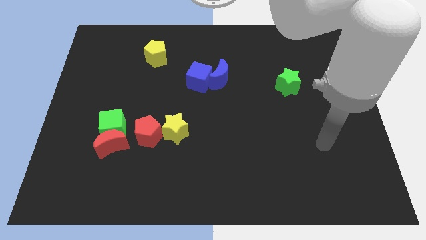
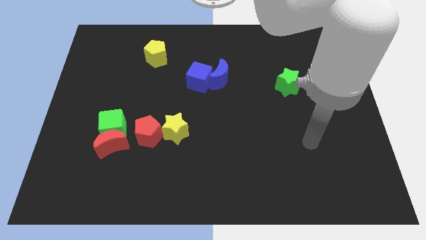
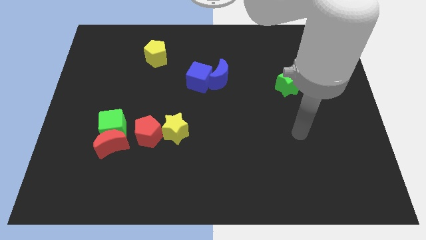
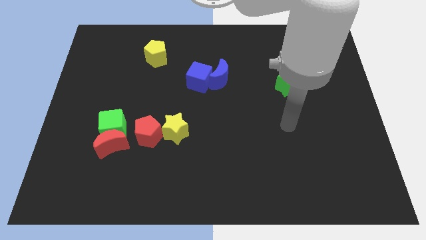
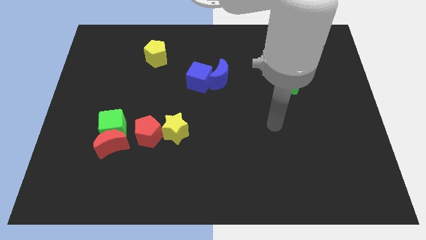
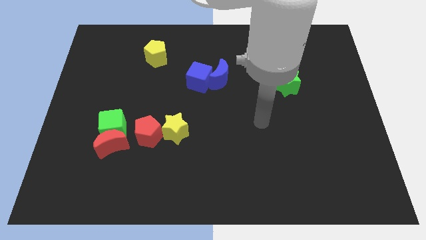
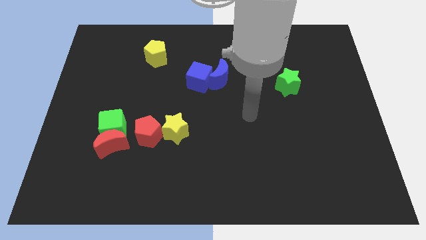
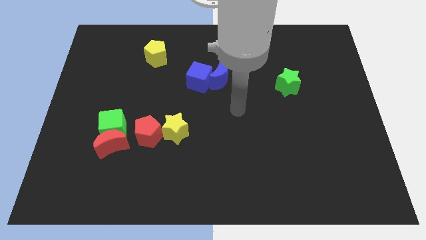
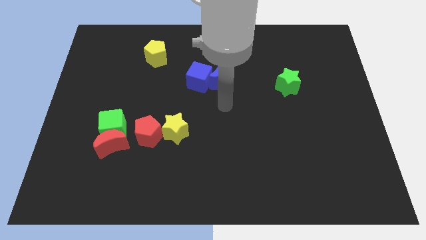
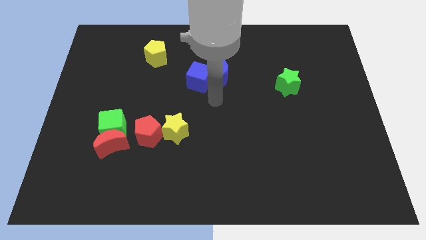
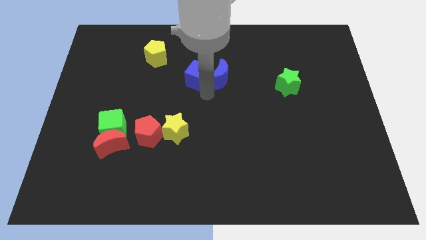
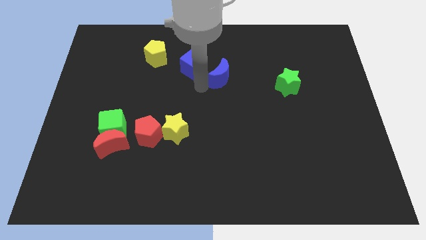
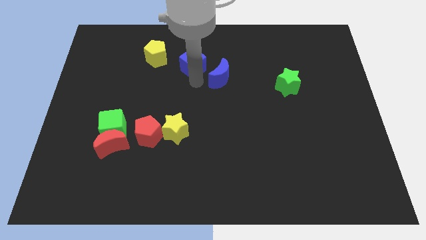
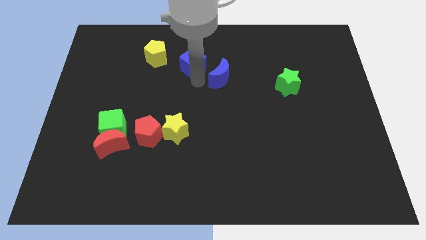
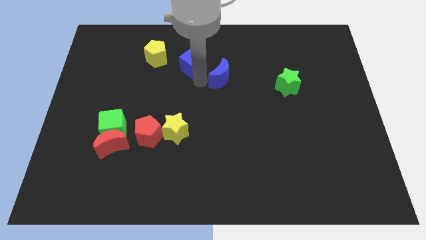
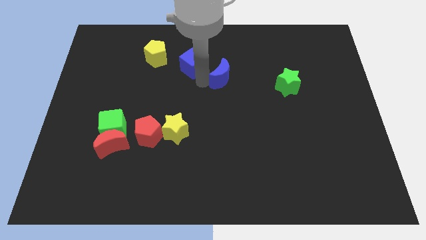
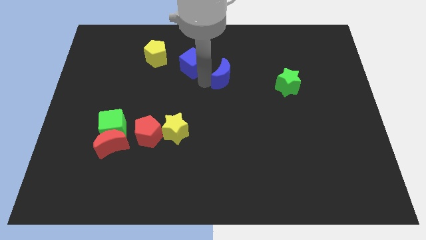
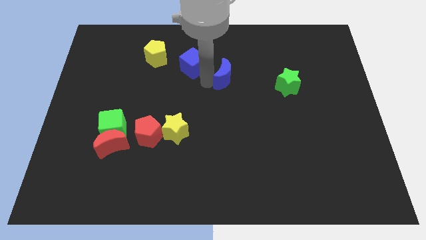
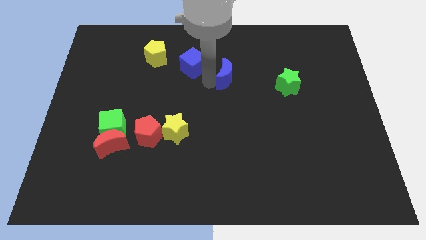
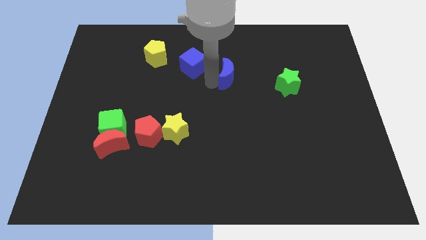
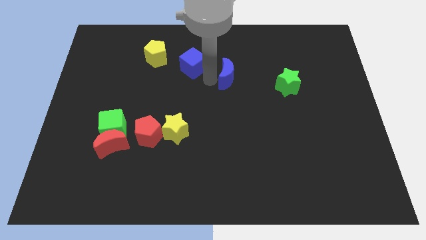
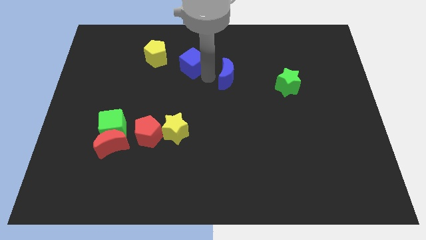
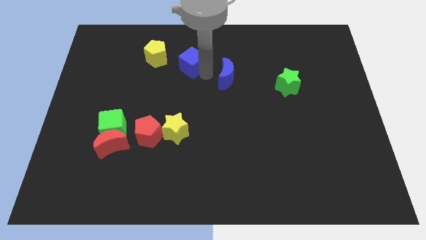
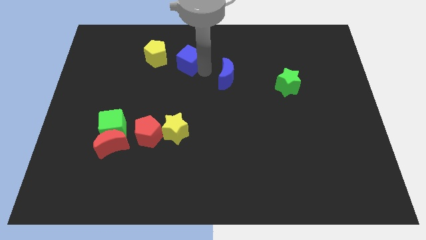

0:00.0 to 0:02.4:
pull the blue moon apart from the blue cube

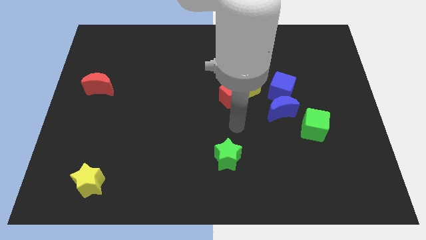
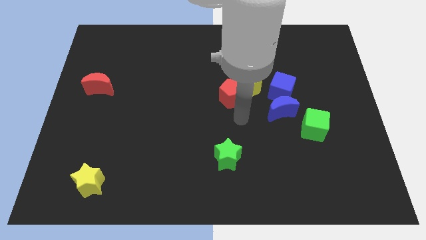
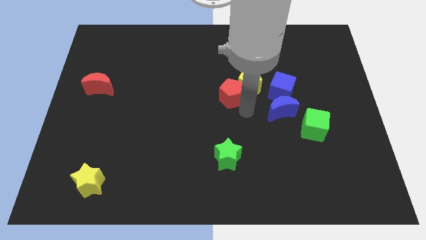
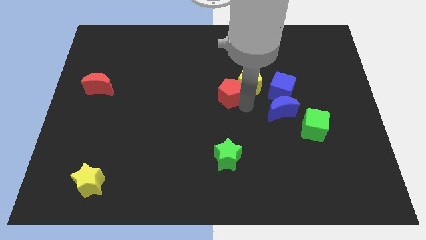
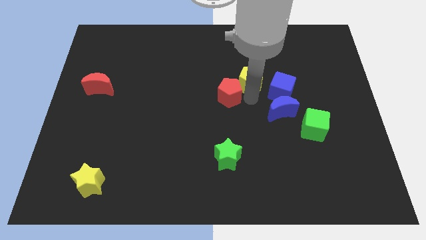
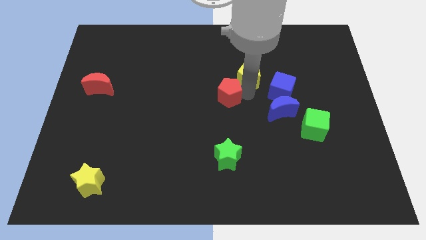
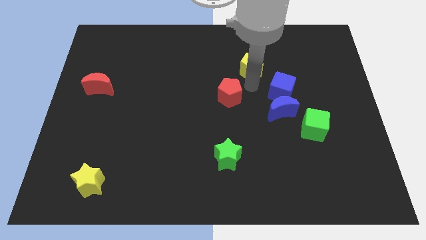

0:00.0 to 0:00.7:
move the red pentagon away from the yellow pentagon

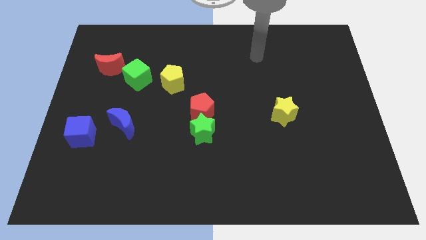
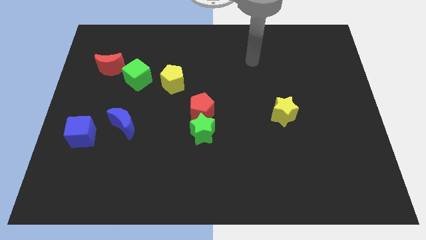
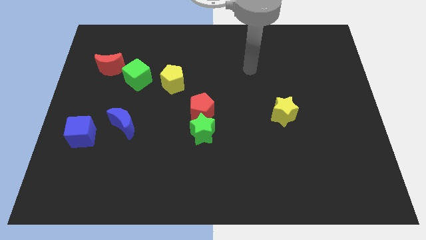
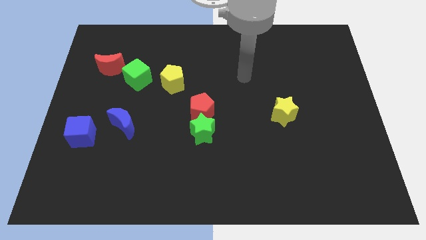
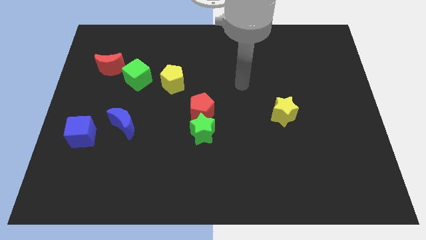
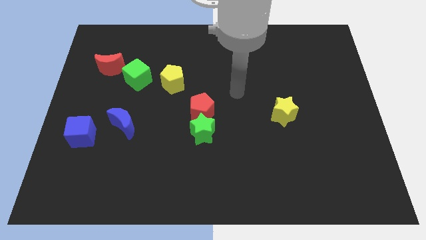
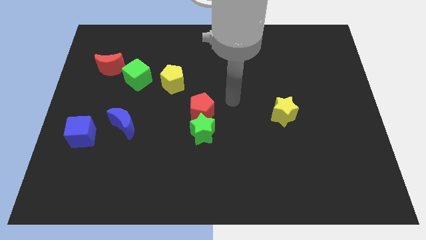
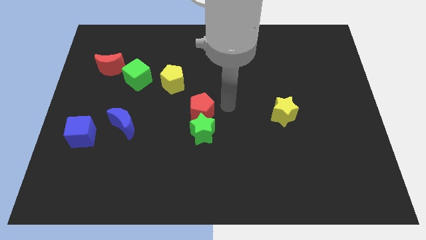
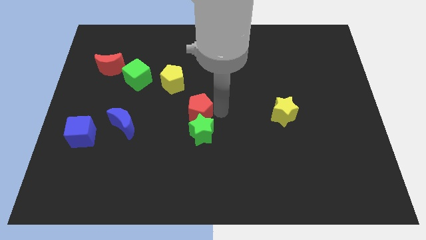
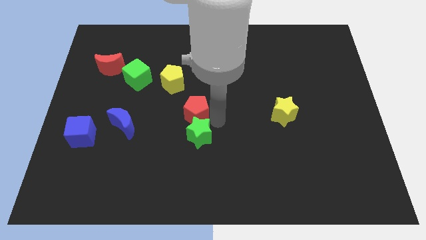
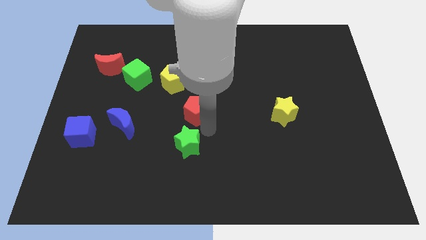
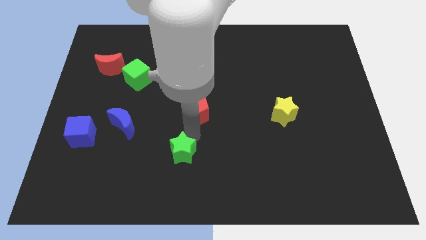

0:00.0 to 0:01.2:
separate the red pentagon from the green star

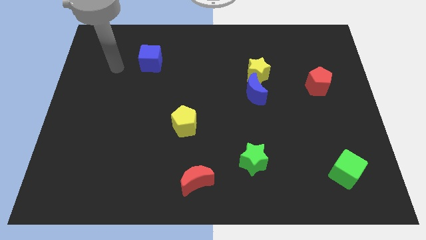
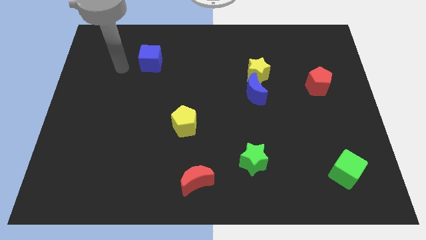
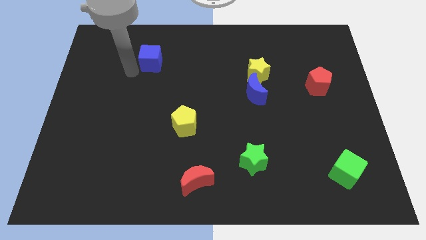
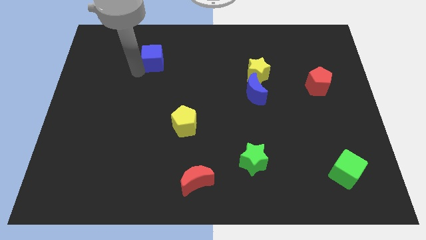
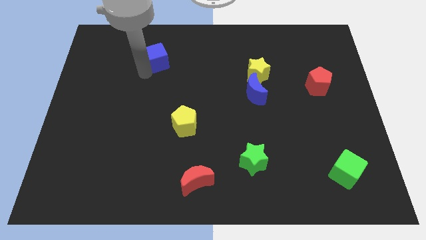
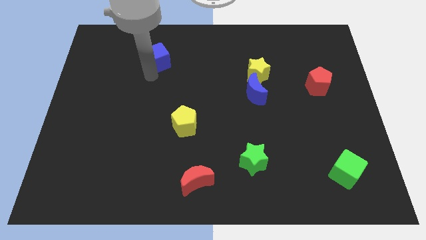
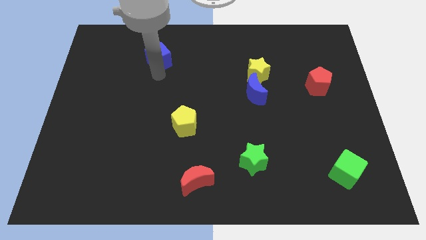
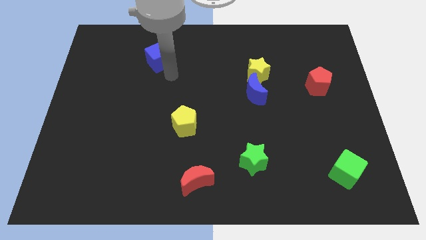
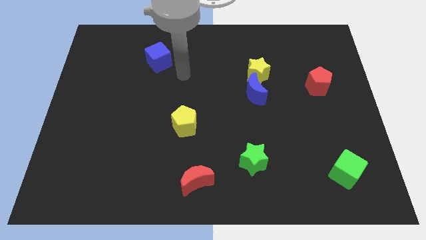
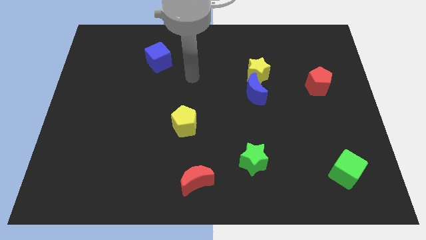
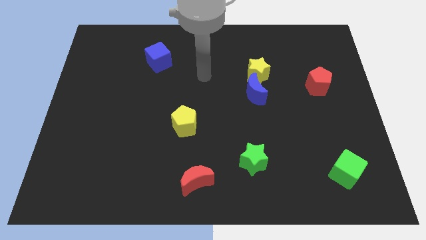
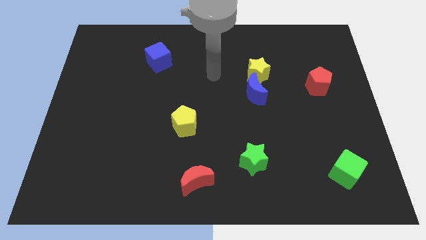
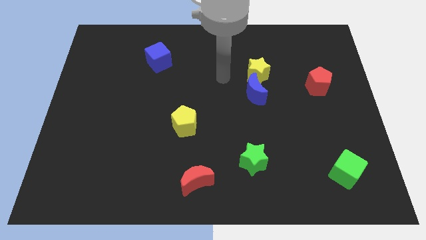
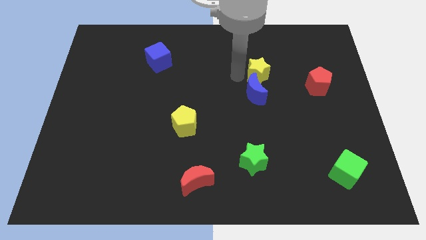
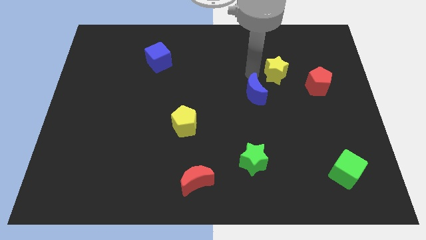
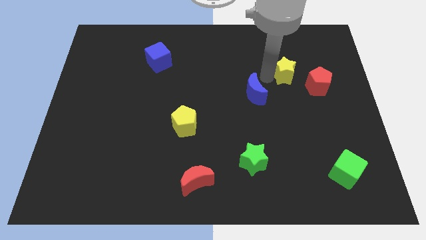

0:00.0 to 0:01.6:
pull the blue moon apart from the yellow star

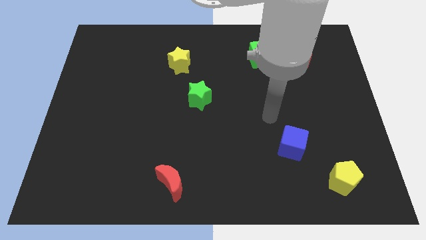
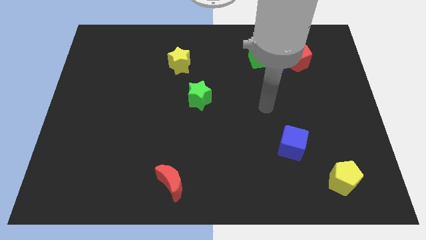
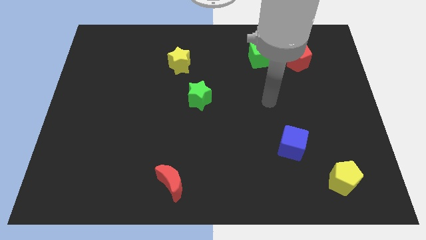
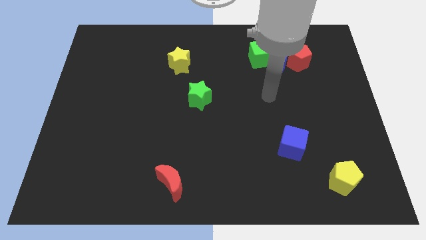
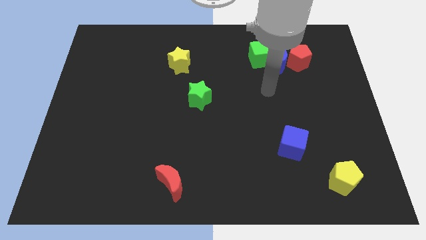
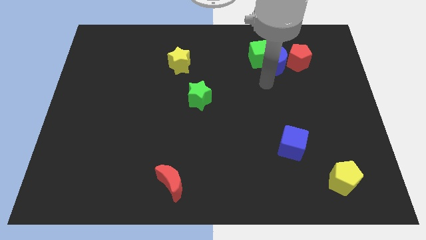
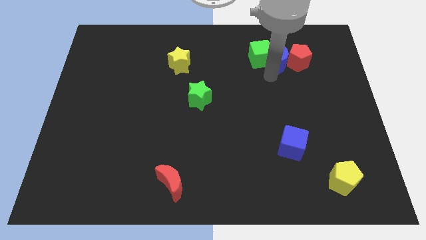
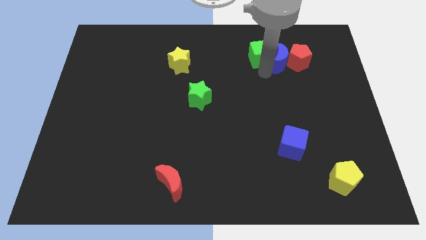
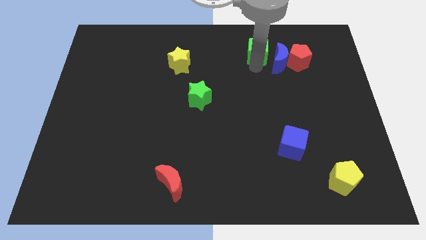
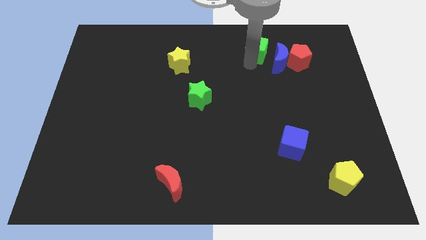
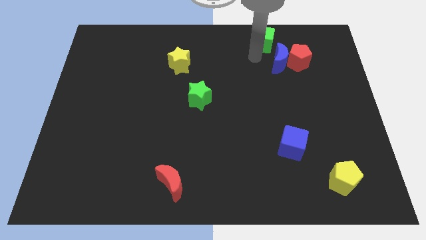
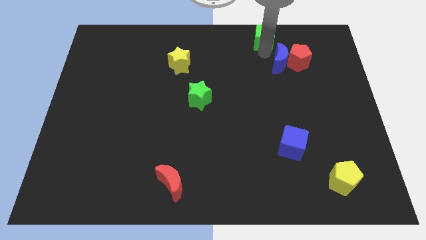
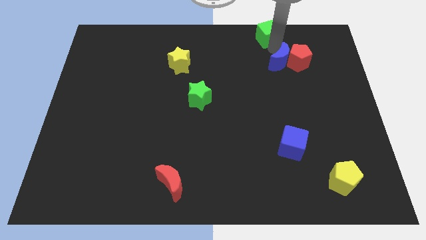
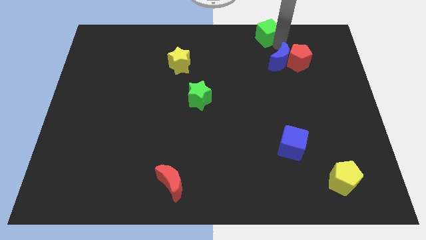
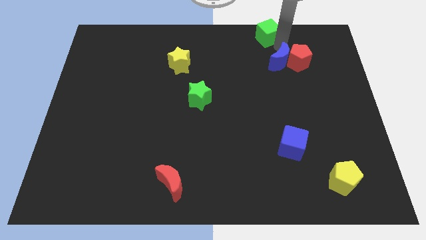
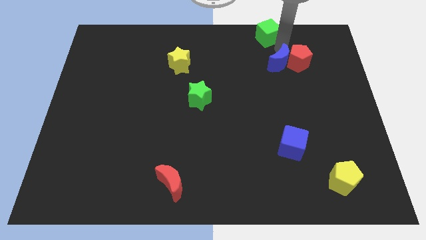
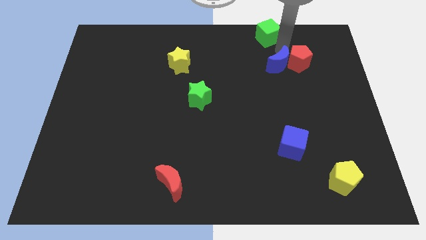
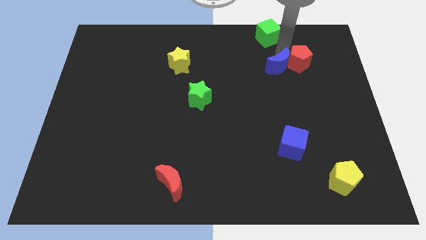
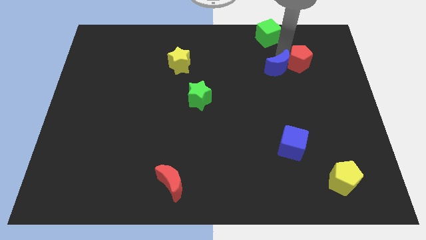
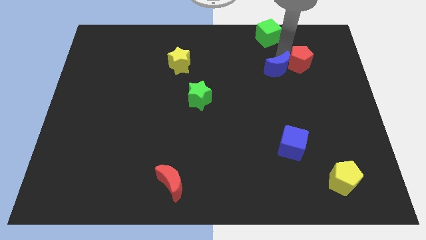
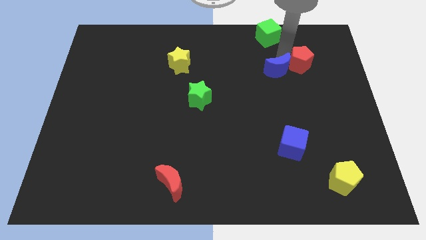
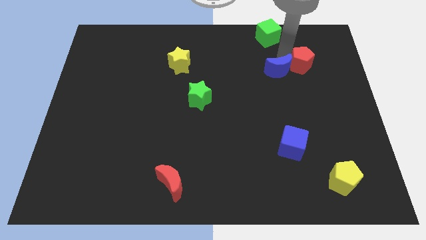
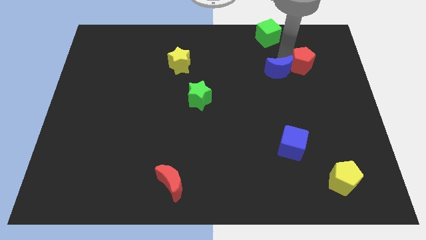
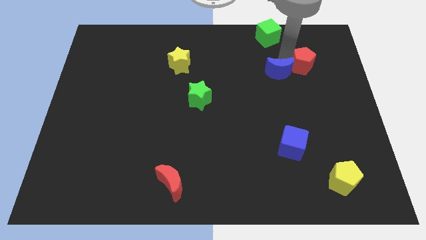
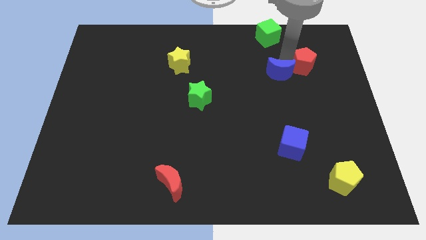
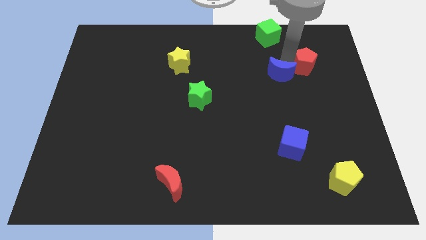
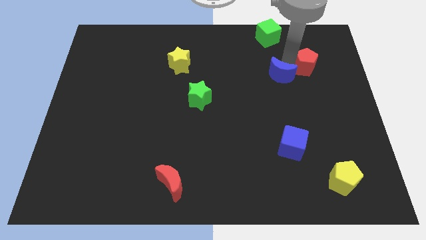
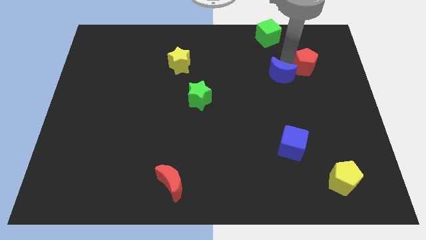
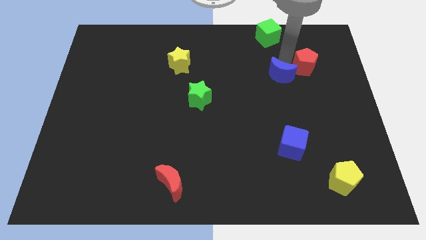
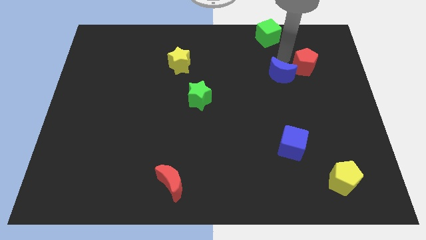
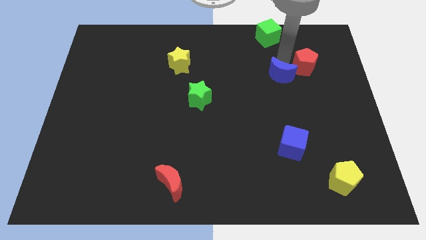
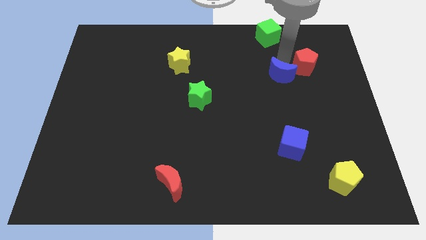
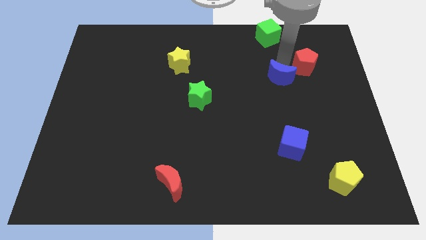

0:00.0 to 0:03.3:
move the blue moon away from the red pentagon and green cube

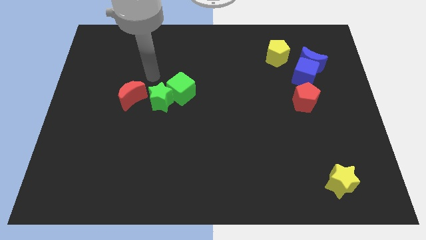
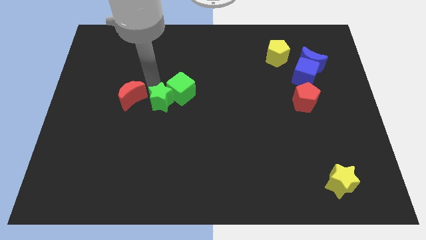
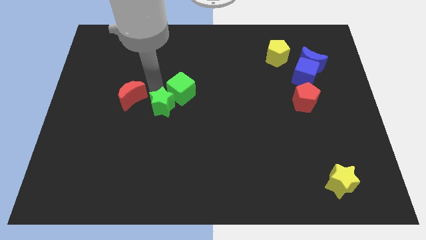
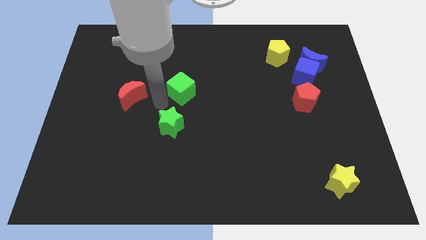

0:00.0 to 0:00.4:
separate the green cube from the green star
